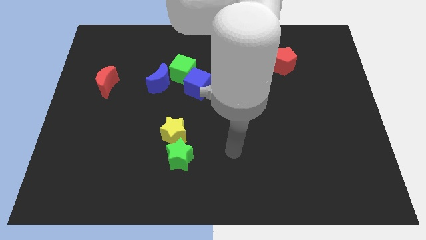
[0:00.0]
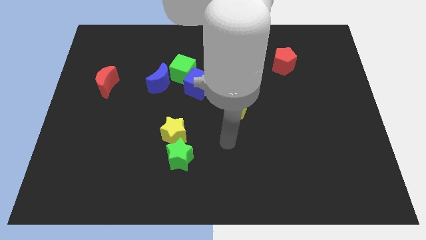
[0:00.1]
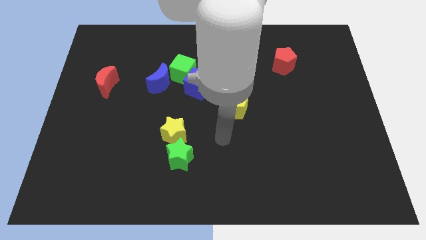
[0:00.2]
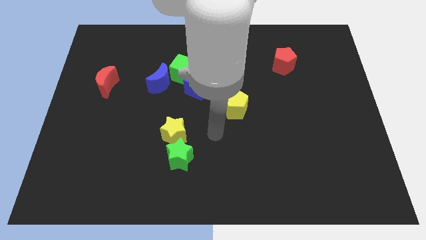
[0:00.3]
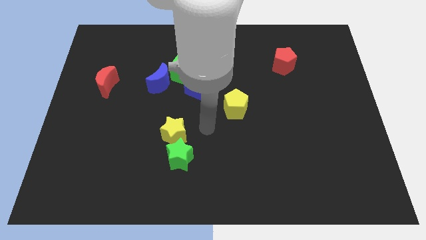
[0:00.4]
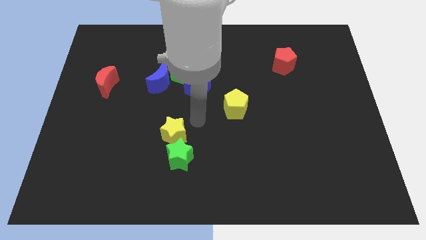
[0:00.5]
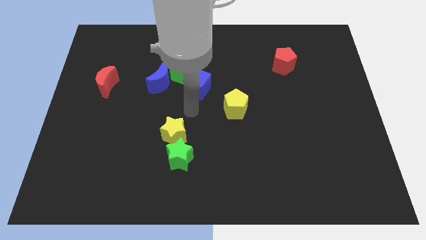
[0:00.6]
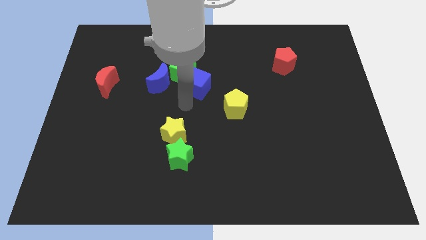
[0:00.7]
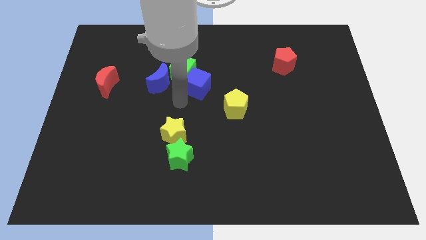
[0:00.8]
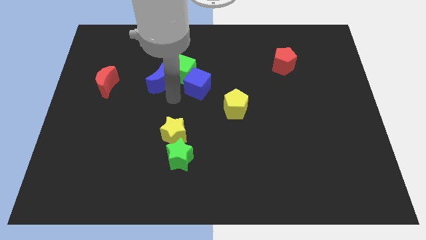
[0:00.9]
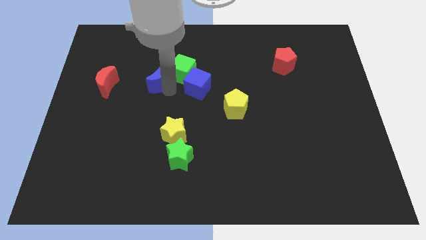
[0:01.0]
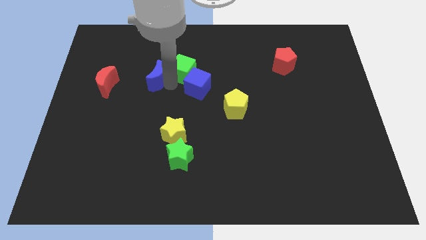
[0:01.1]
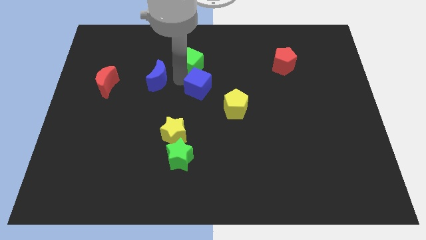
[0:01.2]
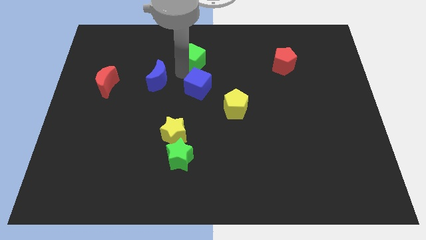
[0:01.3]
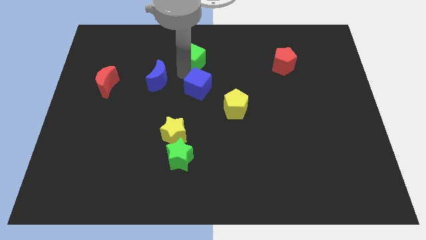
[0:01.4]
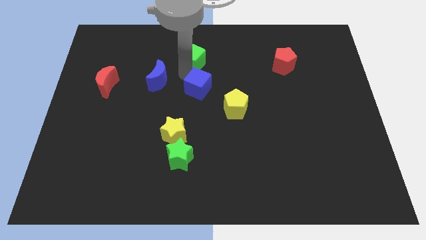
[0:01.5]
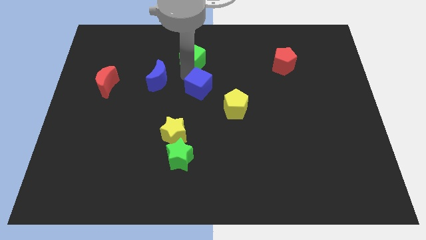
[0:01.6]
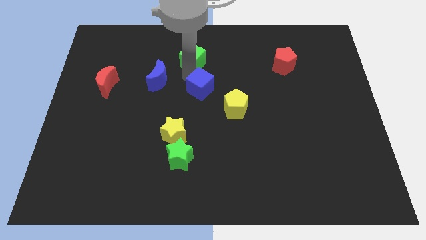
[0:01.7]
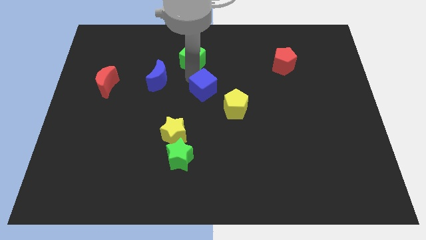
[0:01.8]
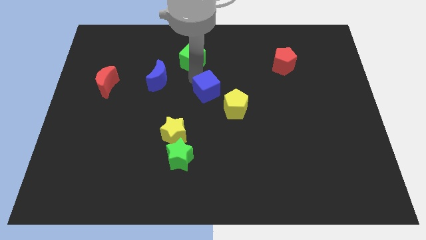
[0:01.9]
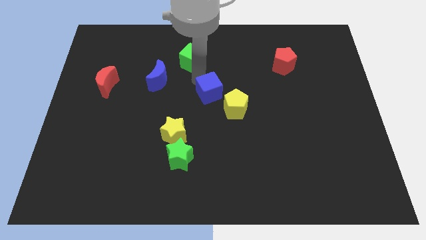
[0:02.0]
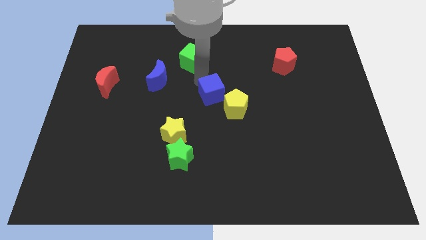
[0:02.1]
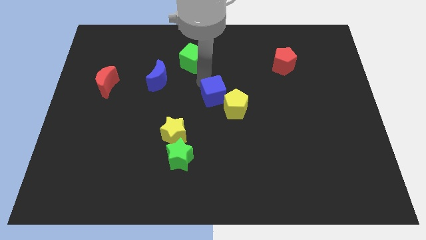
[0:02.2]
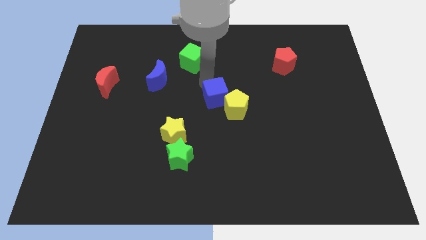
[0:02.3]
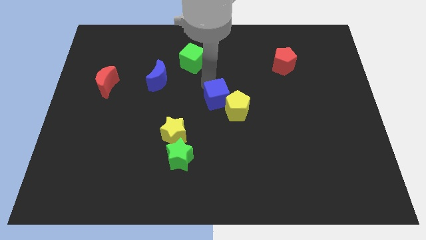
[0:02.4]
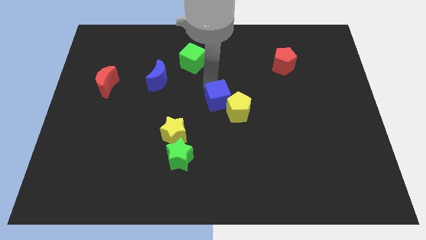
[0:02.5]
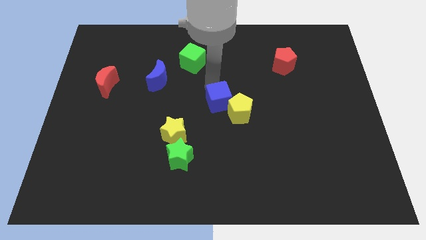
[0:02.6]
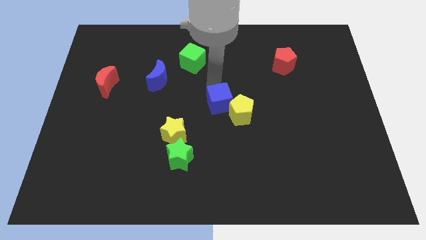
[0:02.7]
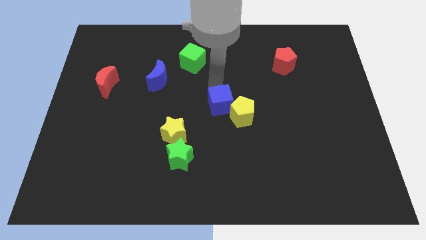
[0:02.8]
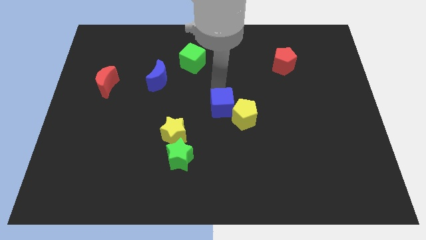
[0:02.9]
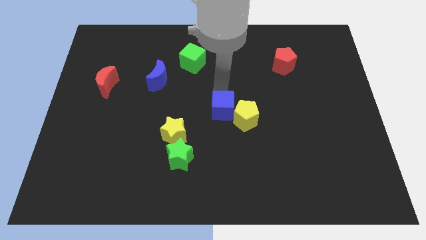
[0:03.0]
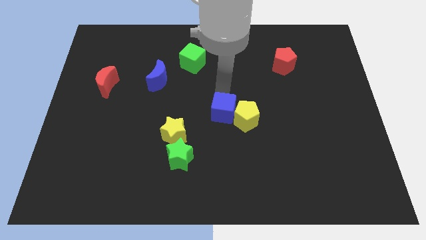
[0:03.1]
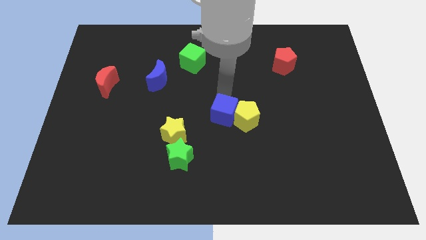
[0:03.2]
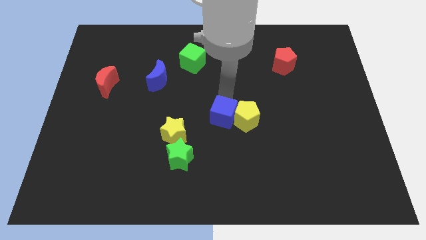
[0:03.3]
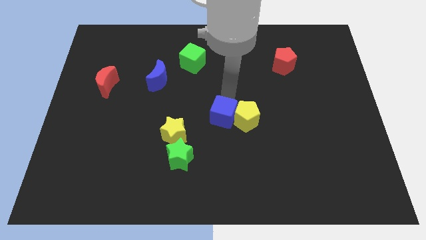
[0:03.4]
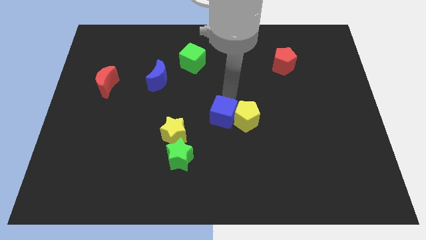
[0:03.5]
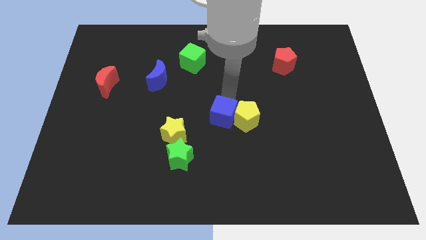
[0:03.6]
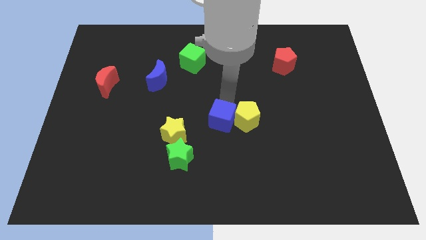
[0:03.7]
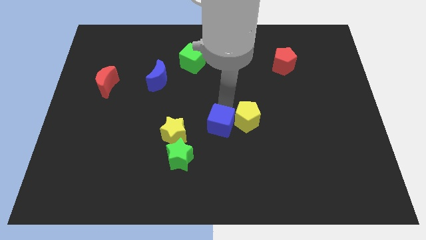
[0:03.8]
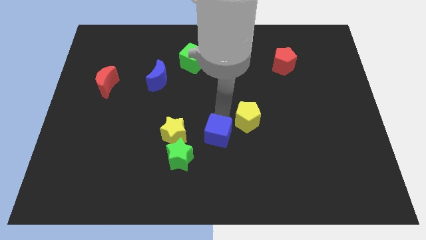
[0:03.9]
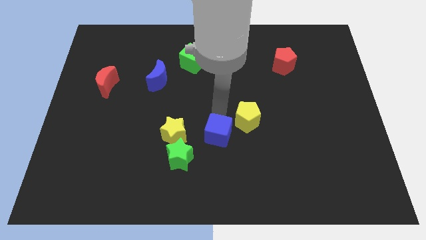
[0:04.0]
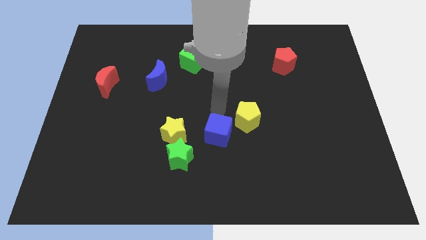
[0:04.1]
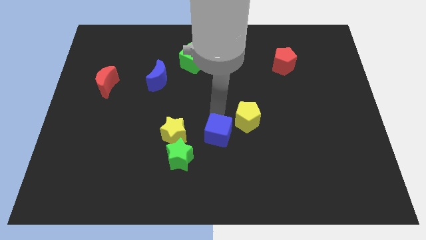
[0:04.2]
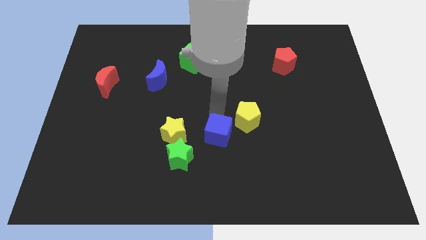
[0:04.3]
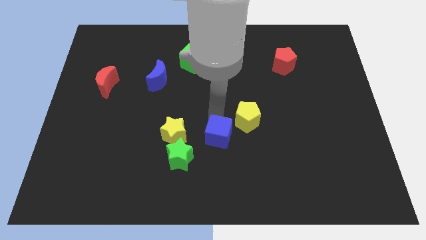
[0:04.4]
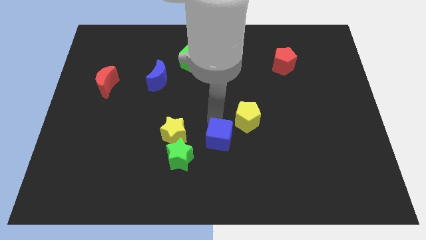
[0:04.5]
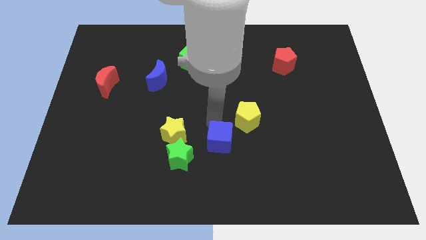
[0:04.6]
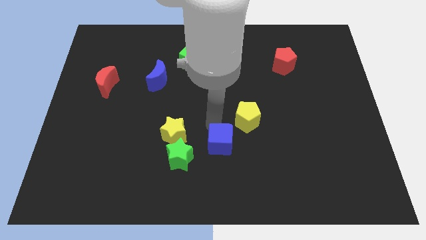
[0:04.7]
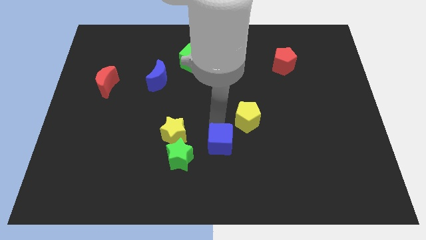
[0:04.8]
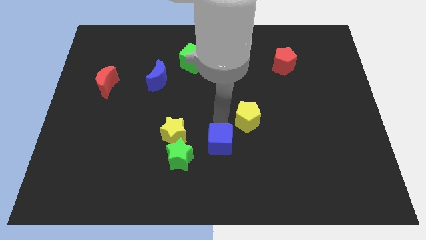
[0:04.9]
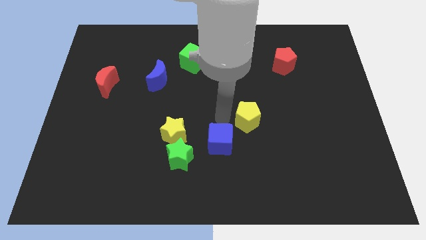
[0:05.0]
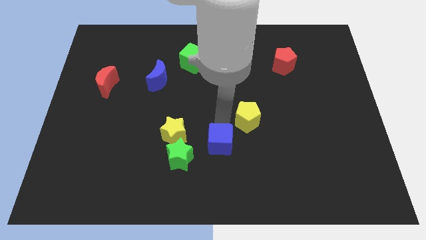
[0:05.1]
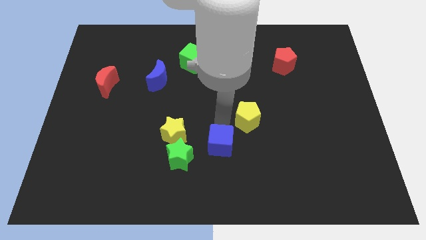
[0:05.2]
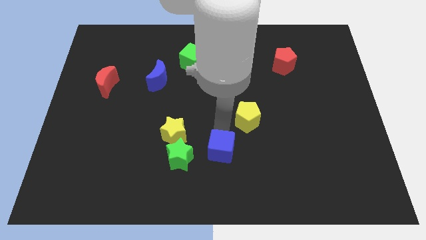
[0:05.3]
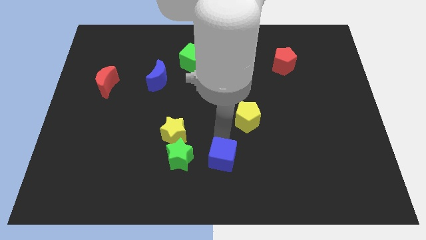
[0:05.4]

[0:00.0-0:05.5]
move the blue cube to the bottom side

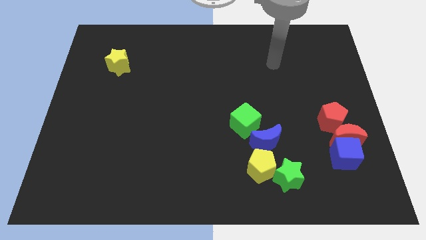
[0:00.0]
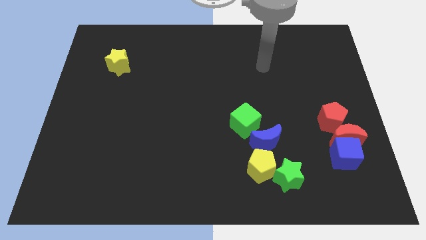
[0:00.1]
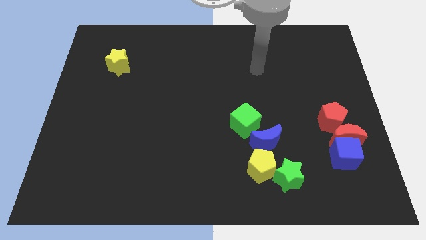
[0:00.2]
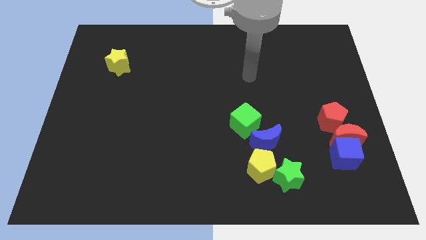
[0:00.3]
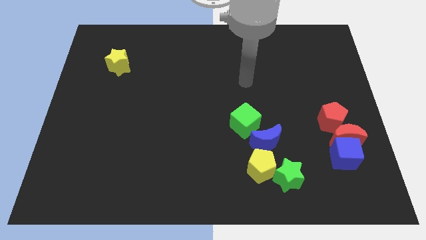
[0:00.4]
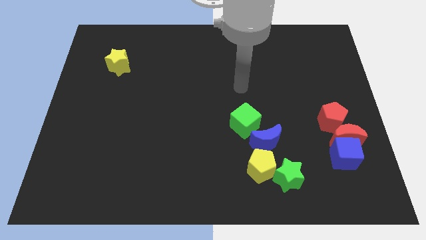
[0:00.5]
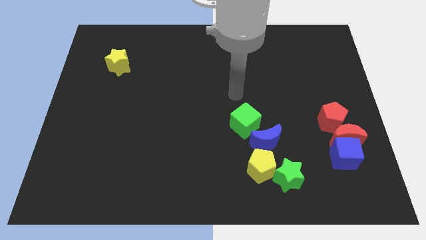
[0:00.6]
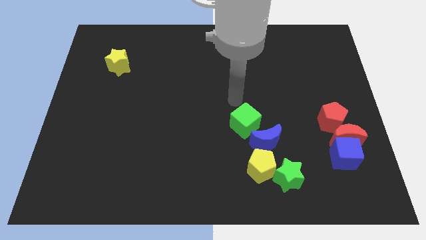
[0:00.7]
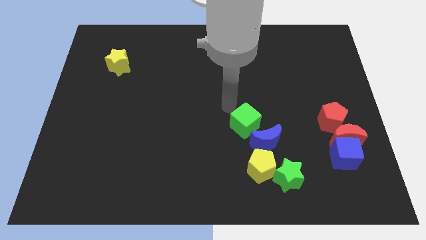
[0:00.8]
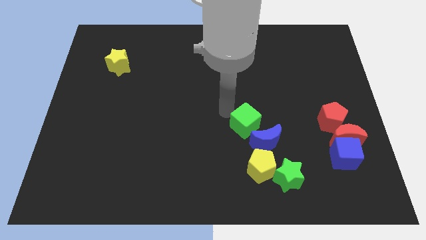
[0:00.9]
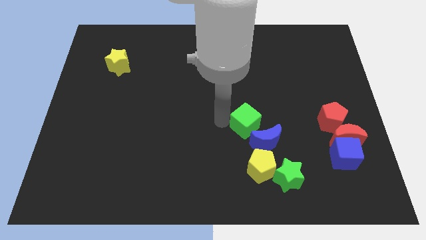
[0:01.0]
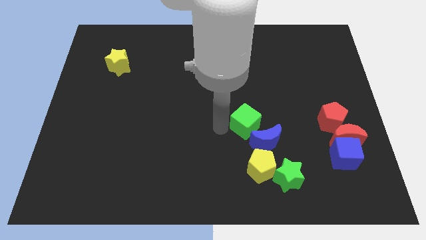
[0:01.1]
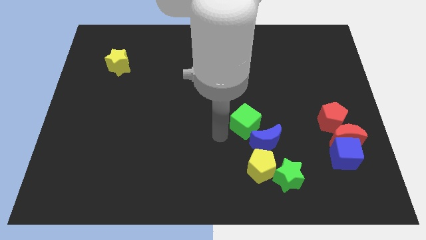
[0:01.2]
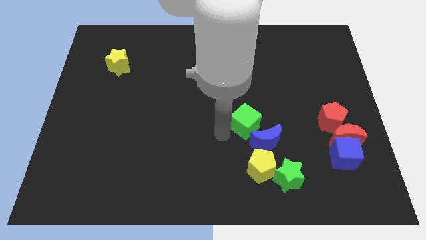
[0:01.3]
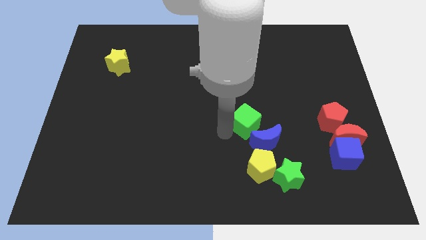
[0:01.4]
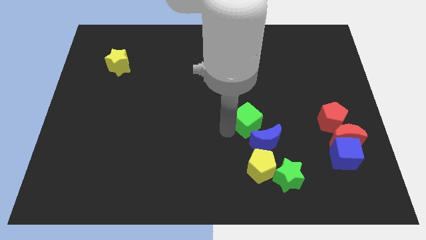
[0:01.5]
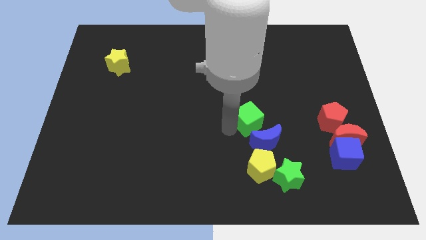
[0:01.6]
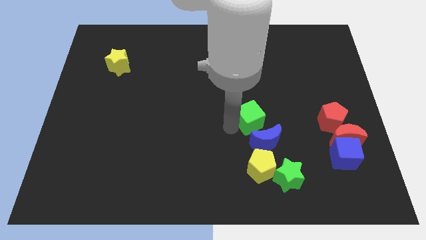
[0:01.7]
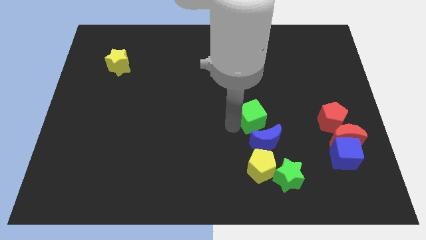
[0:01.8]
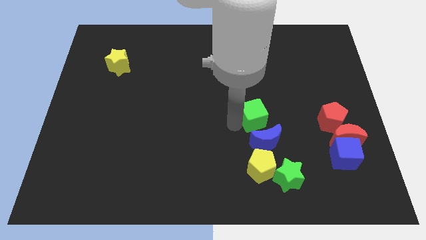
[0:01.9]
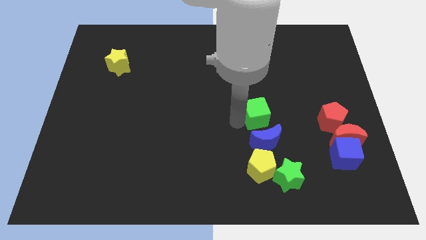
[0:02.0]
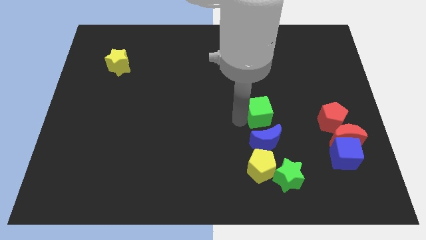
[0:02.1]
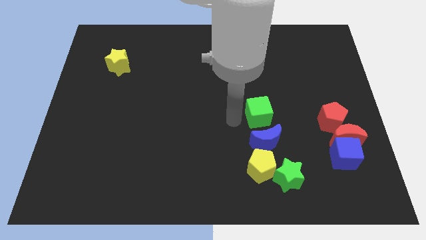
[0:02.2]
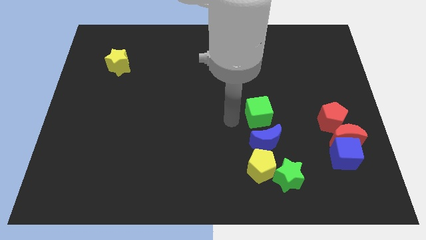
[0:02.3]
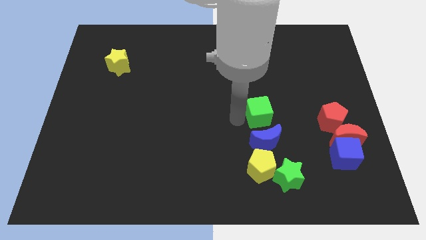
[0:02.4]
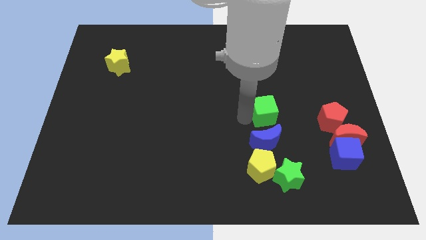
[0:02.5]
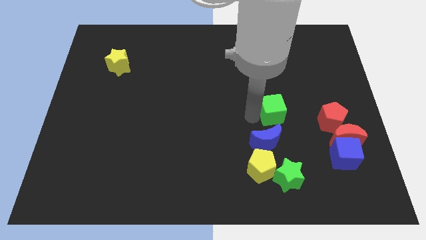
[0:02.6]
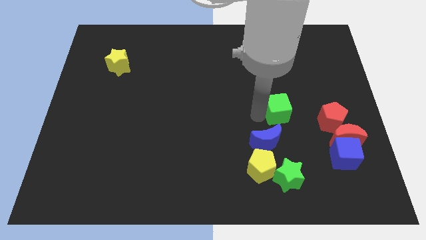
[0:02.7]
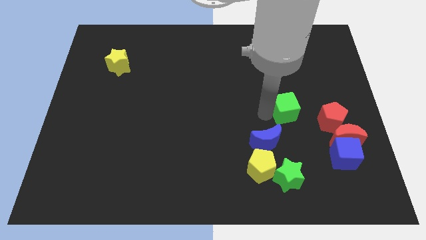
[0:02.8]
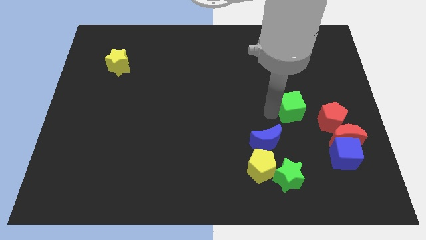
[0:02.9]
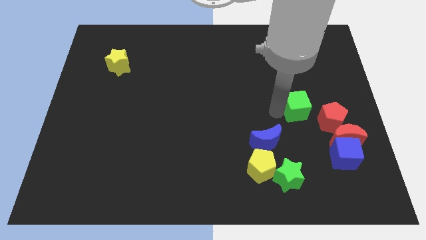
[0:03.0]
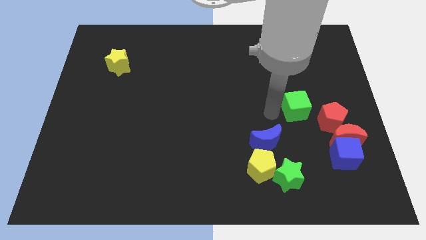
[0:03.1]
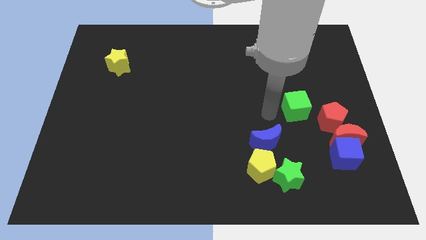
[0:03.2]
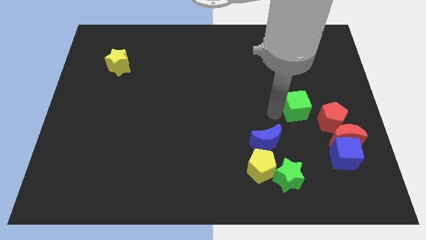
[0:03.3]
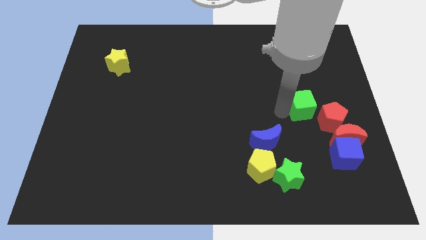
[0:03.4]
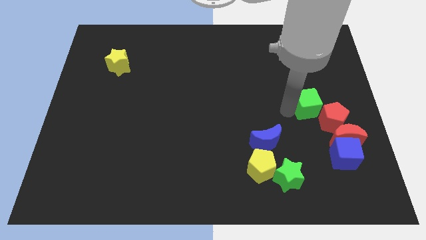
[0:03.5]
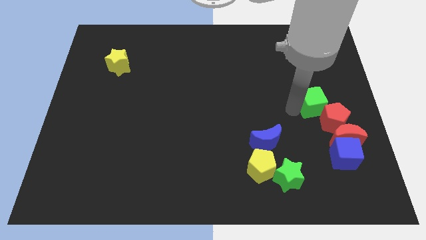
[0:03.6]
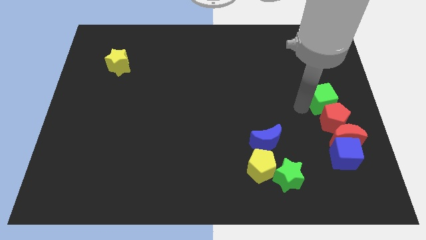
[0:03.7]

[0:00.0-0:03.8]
slide the green cube to the right side
